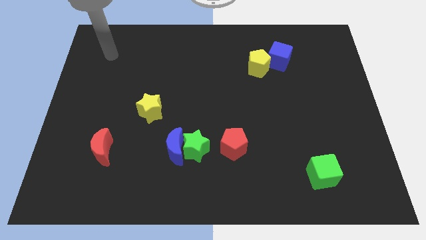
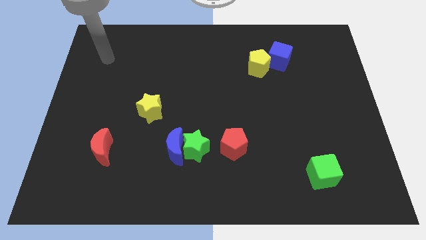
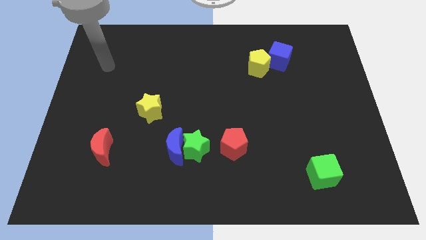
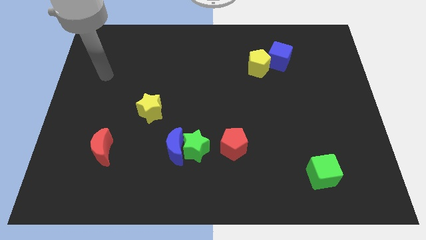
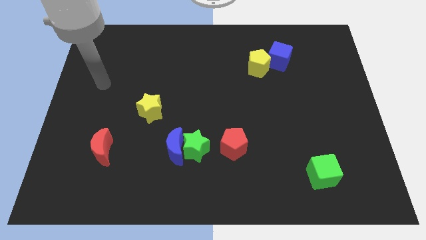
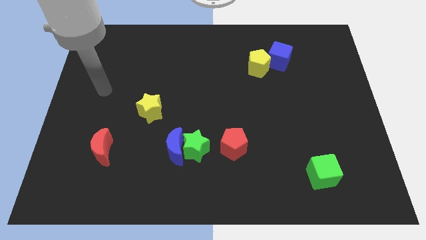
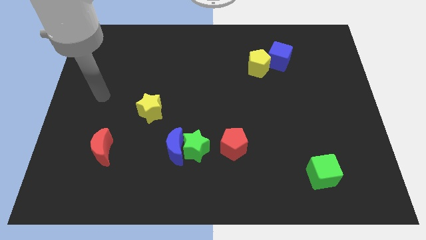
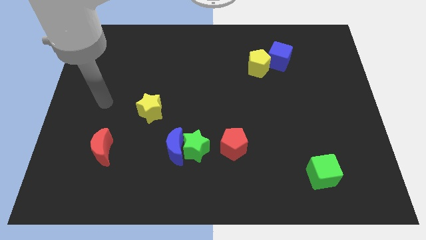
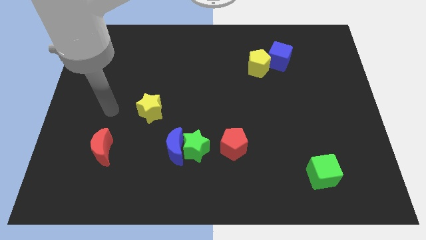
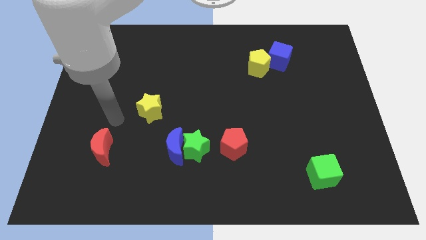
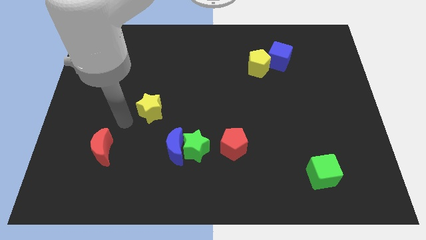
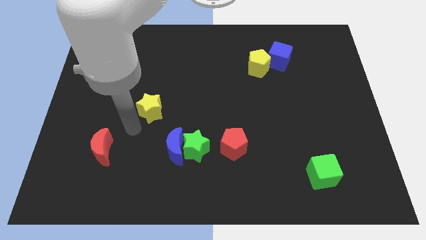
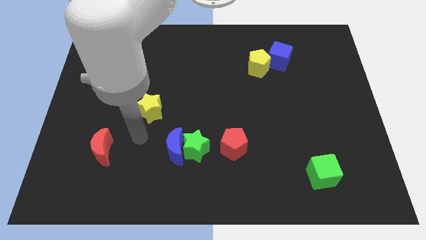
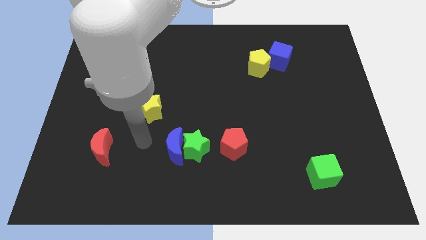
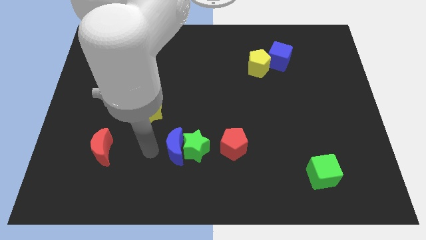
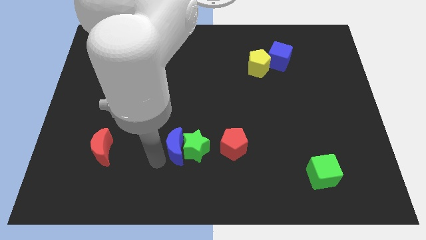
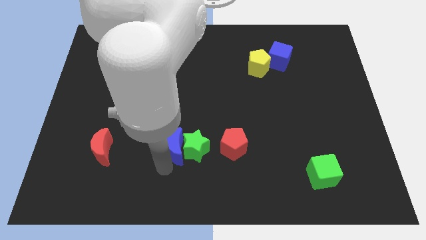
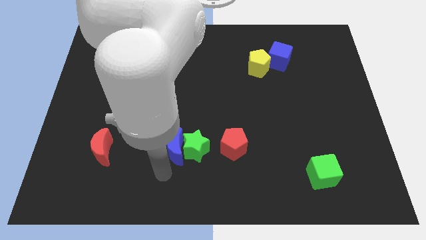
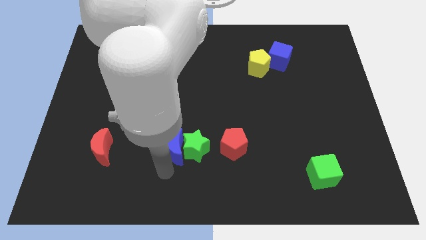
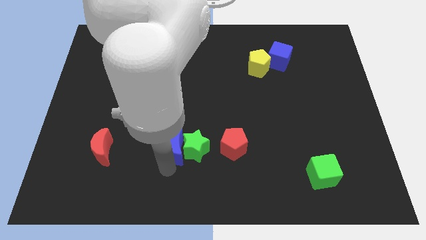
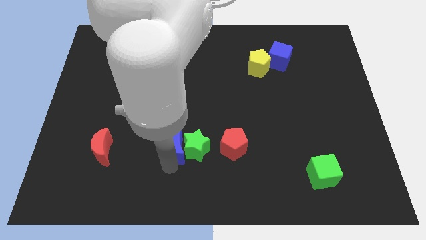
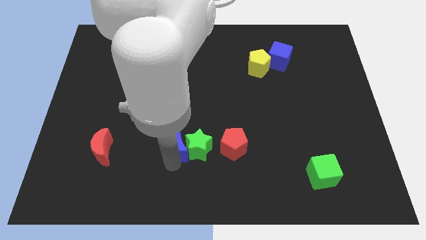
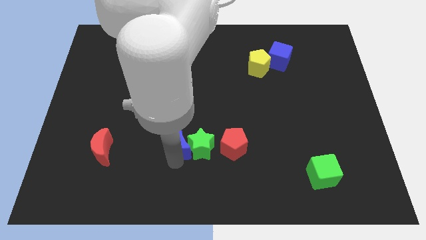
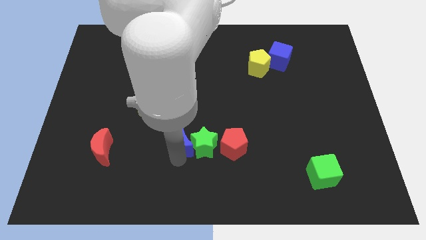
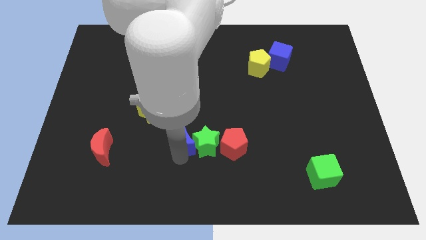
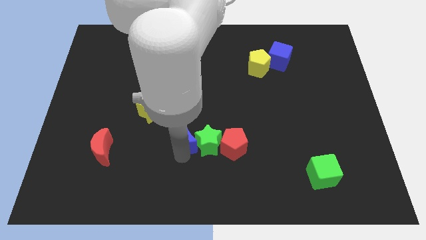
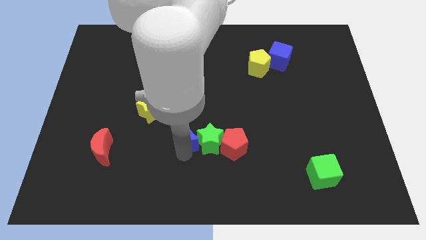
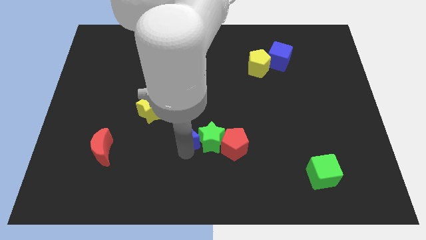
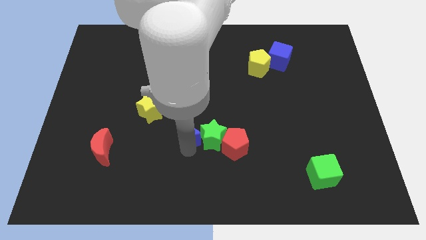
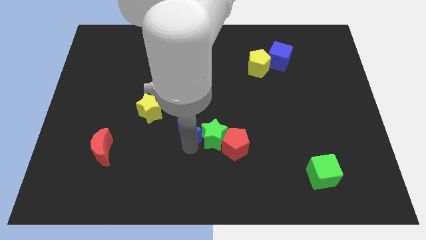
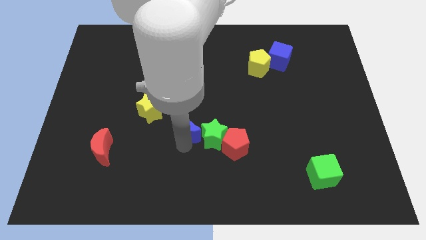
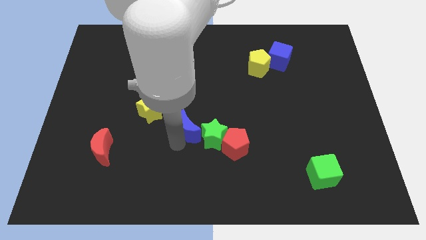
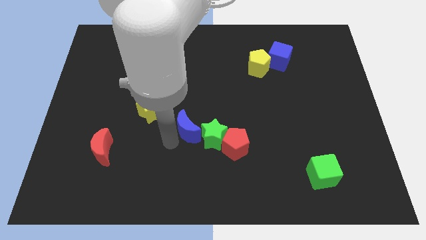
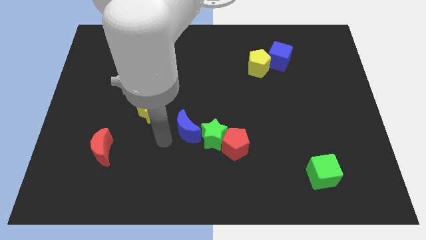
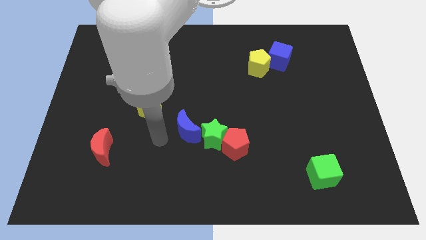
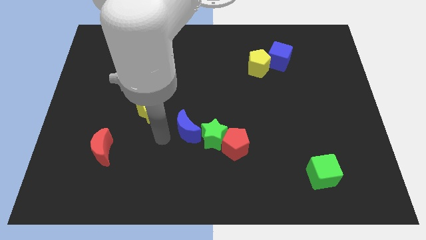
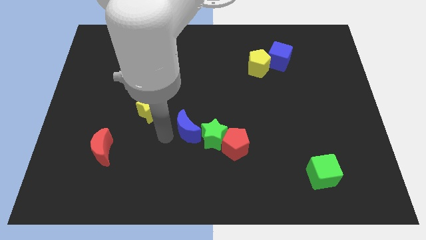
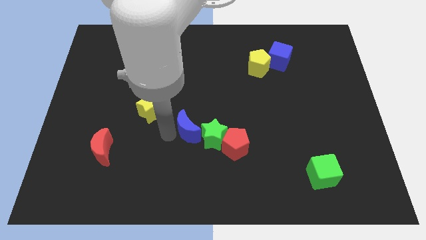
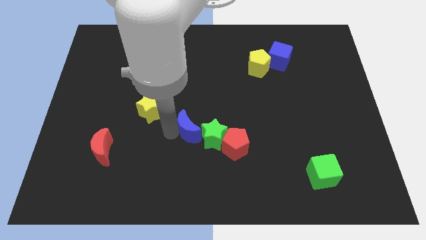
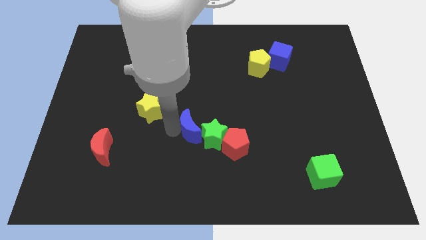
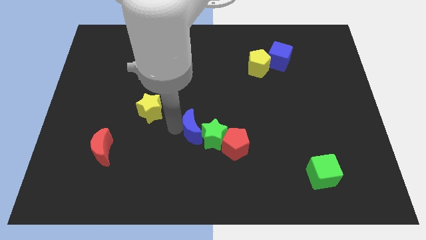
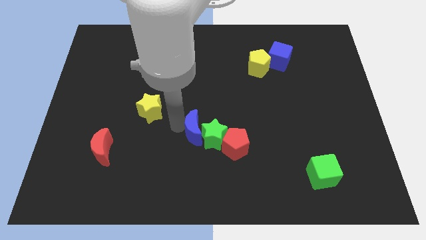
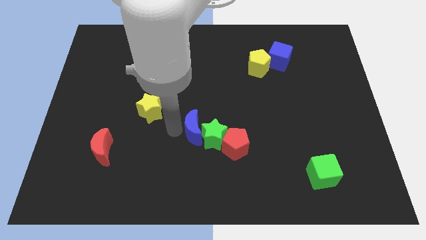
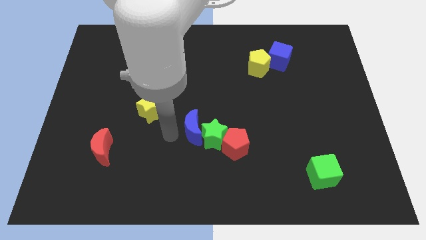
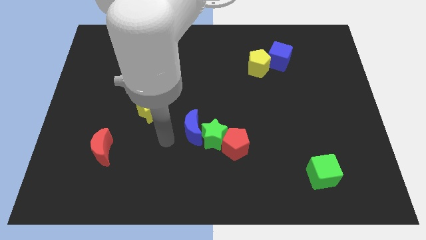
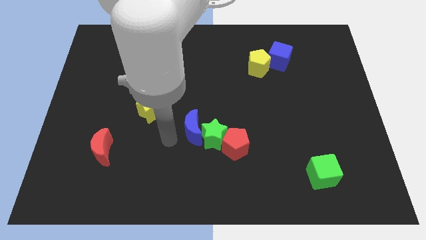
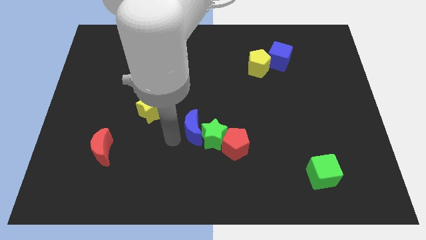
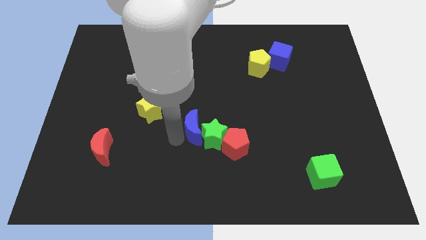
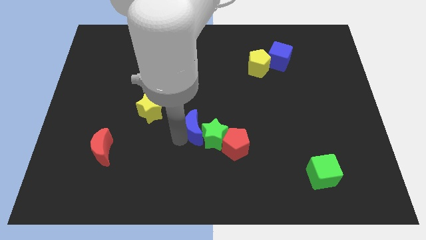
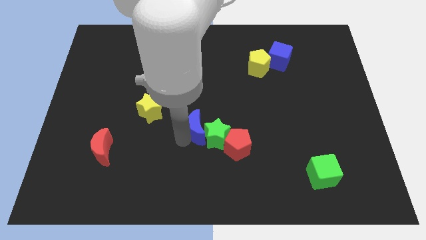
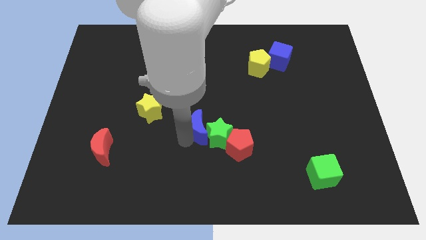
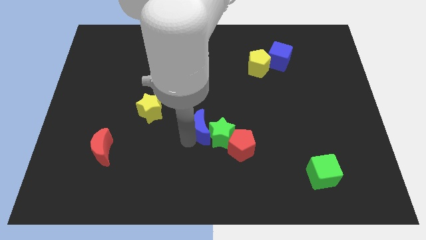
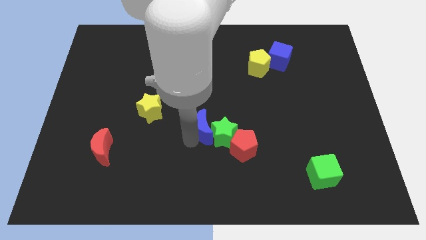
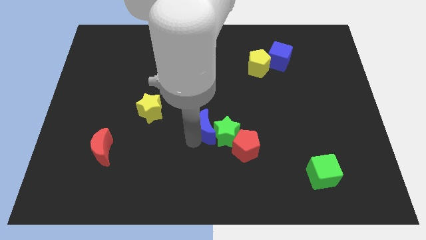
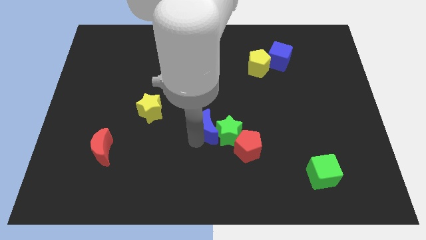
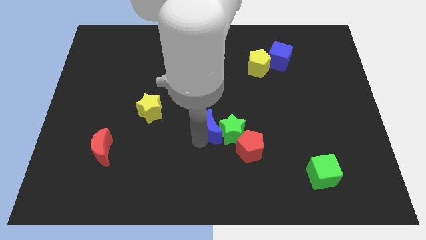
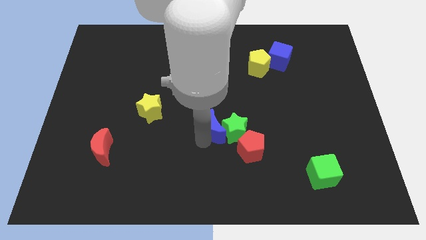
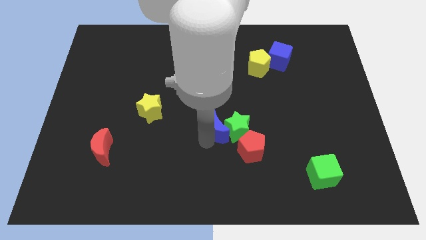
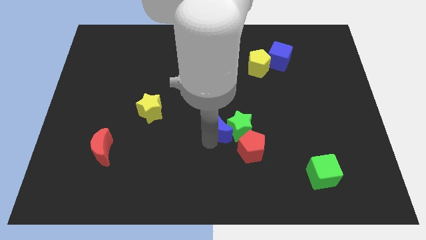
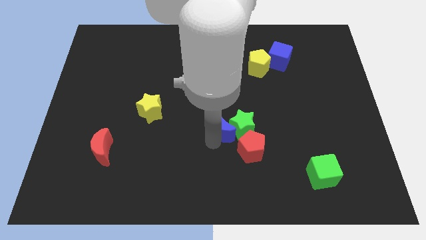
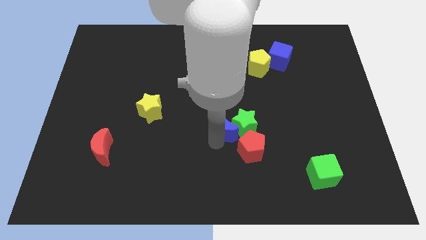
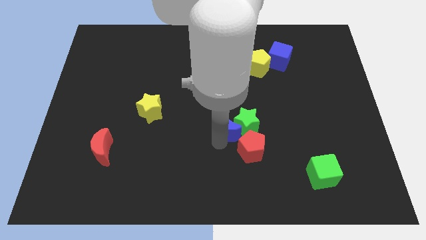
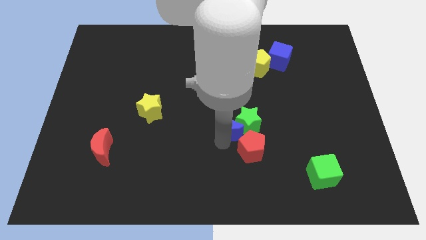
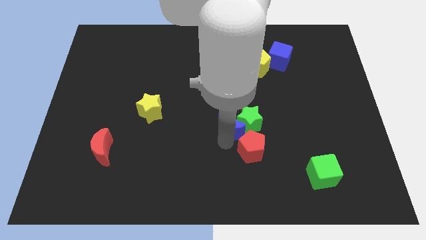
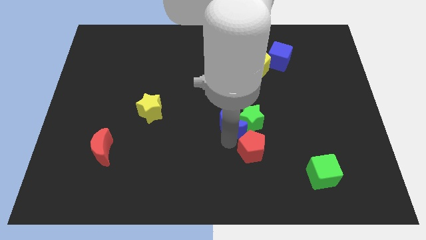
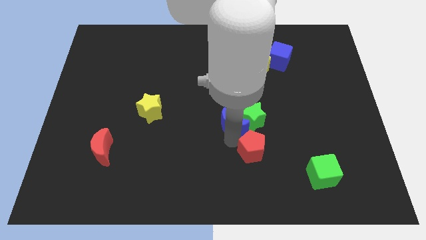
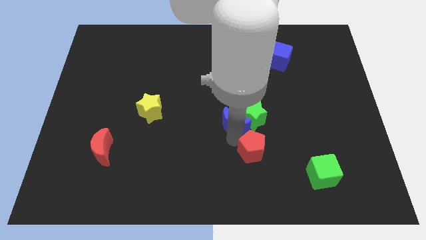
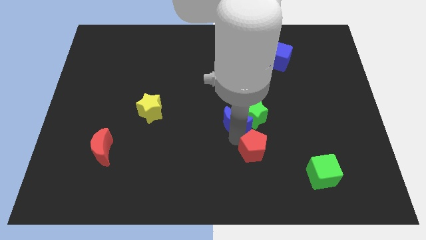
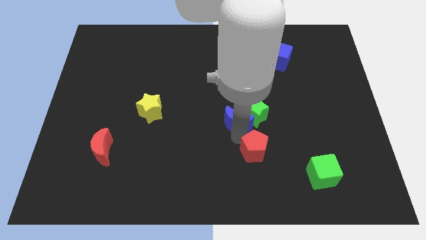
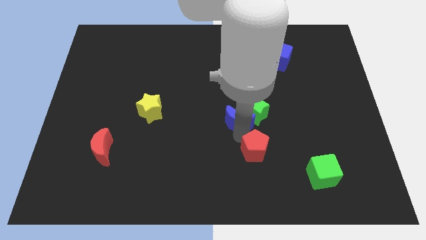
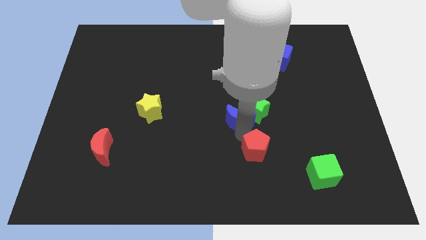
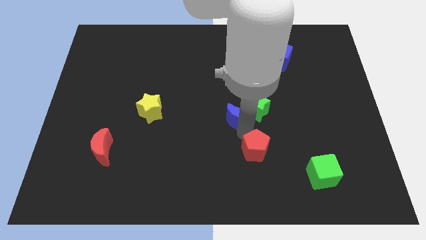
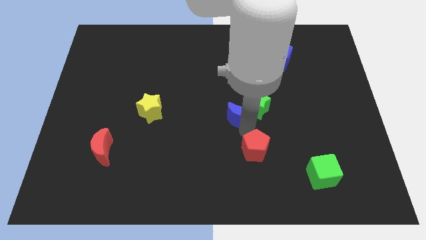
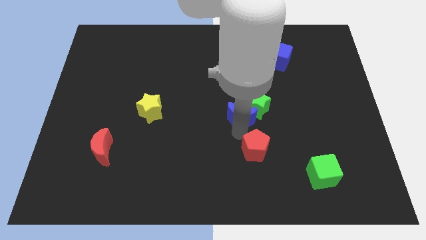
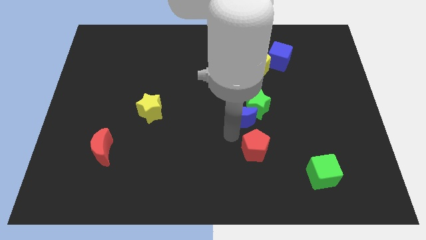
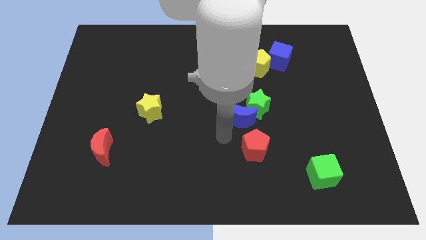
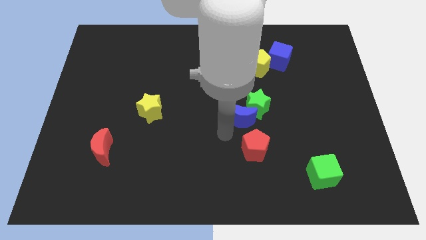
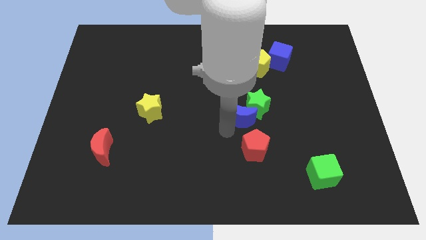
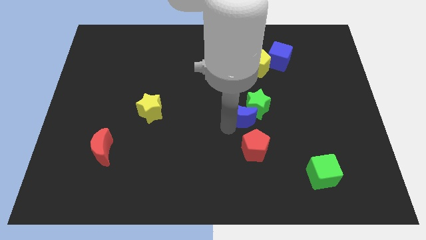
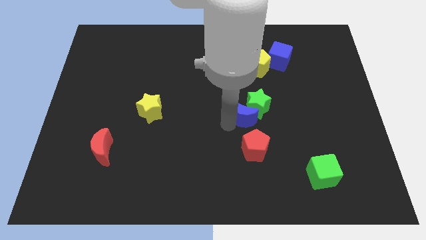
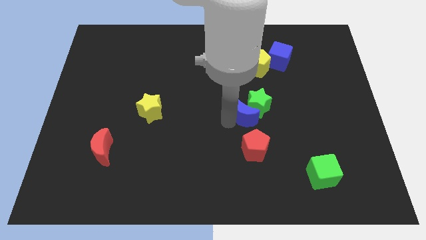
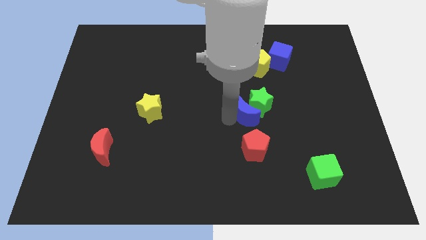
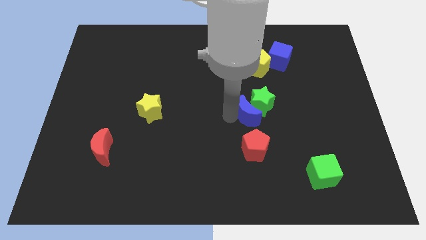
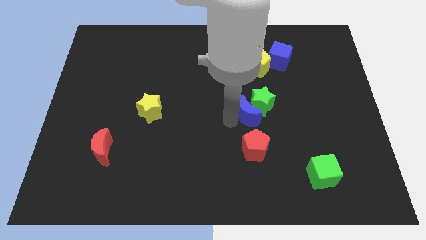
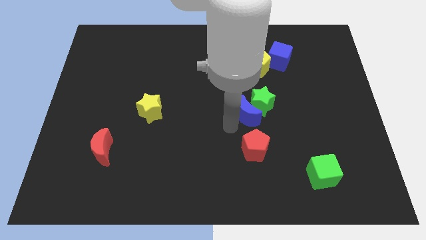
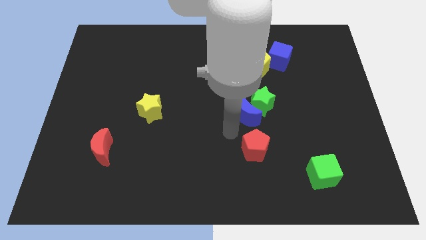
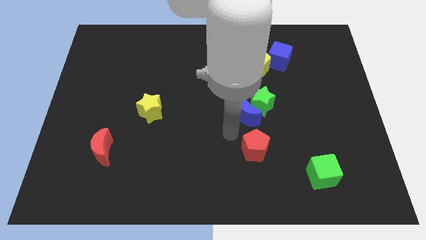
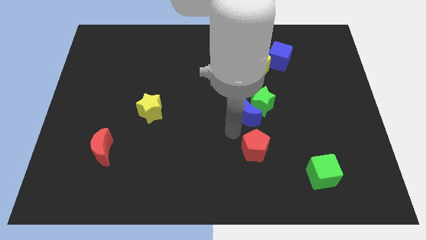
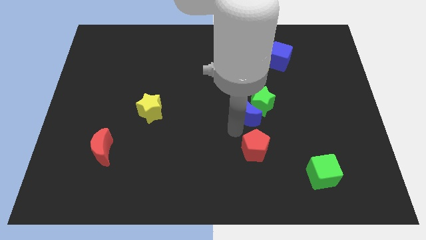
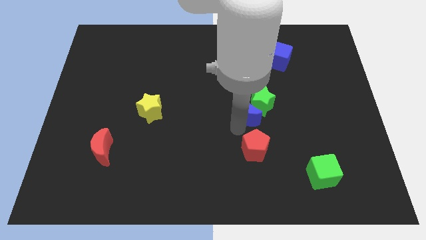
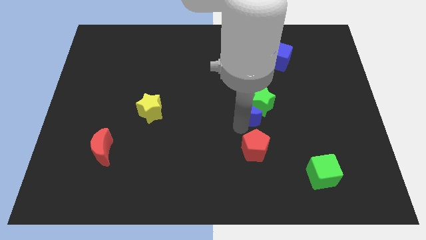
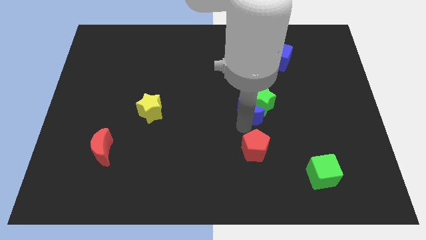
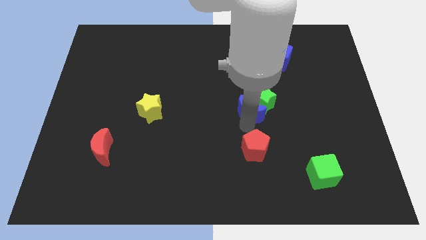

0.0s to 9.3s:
slide the blue moon to the bottom of the yellow pentagon
